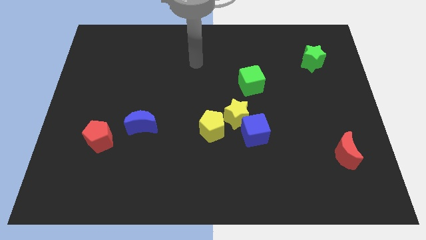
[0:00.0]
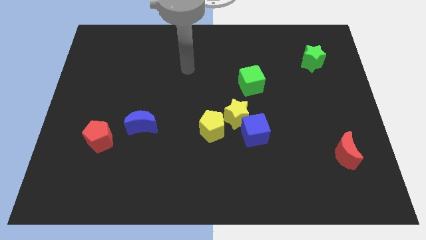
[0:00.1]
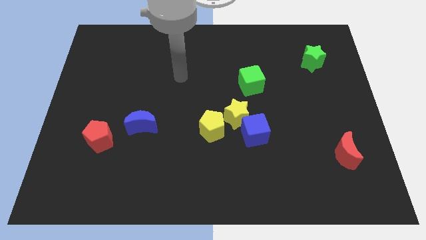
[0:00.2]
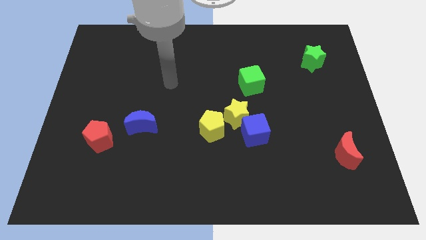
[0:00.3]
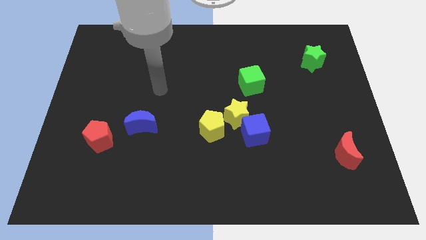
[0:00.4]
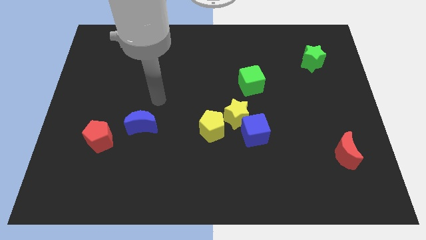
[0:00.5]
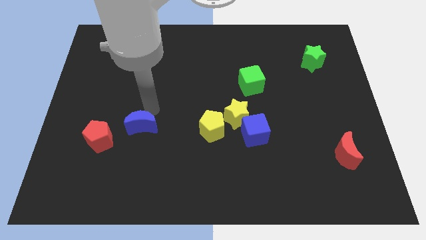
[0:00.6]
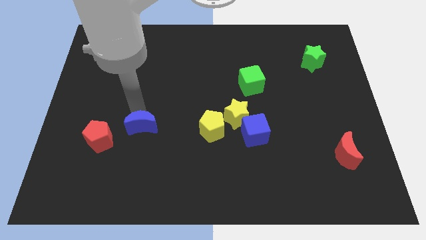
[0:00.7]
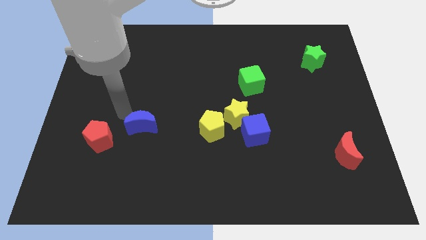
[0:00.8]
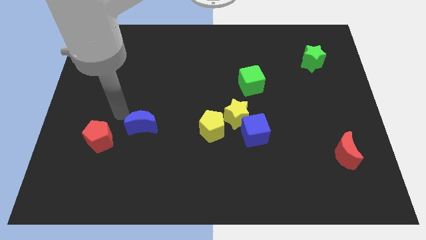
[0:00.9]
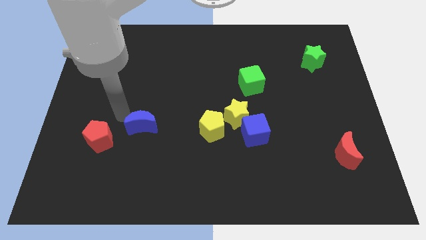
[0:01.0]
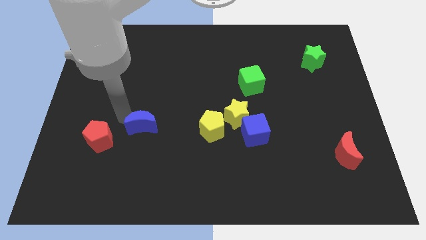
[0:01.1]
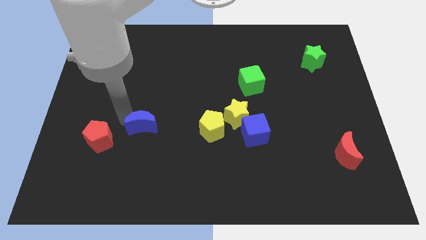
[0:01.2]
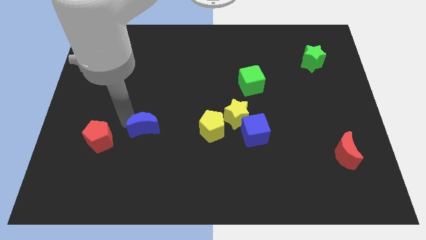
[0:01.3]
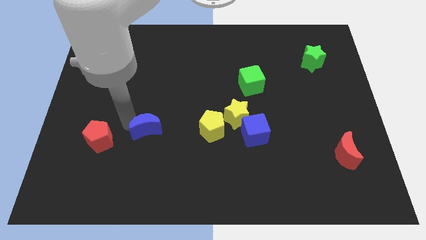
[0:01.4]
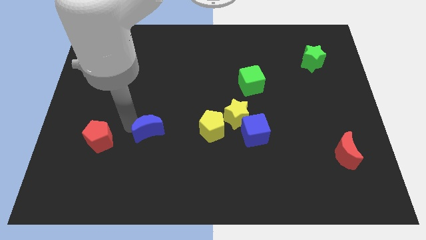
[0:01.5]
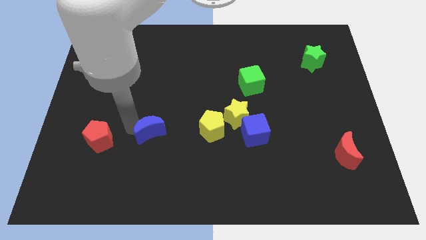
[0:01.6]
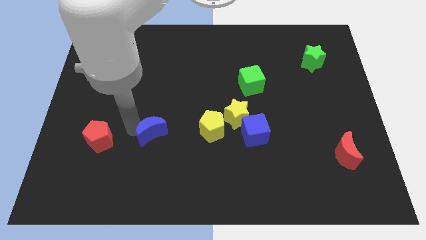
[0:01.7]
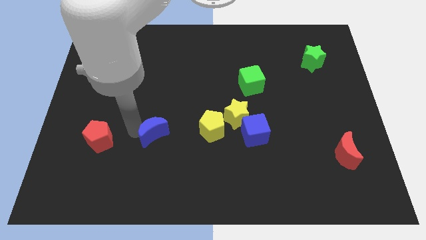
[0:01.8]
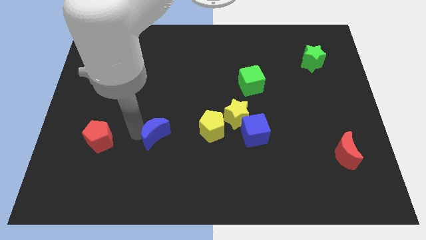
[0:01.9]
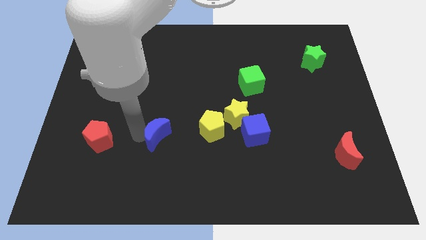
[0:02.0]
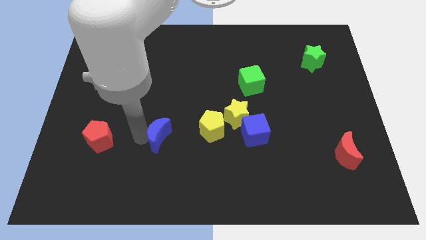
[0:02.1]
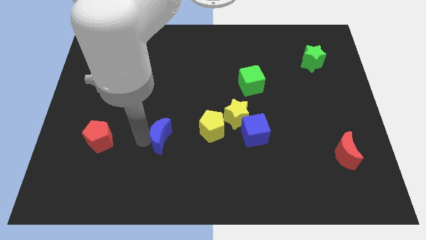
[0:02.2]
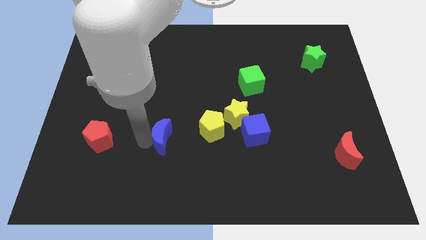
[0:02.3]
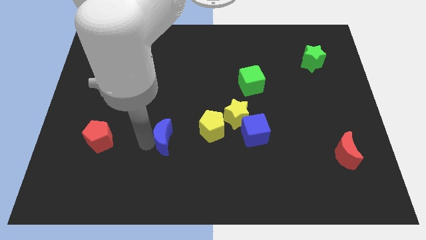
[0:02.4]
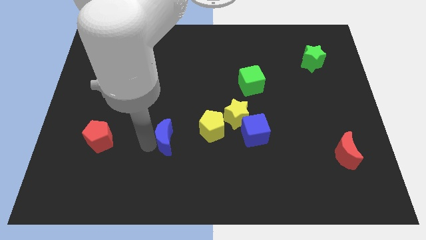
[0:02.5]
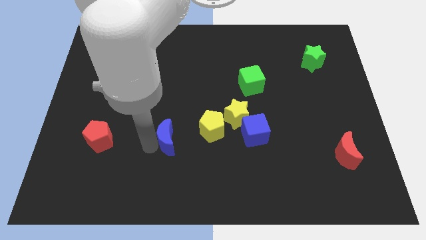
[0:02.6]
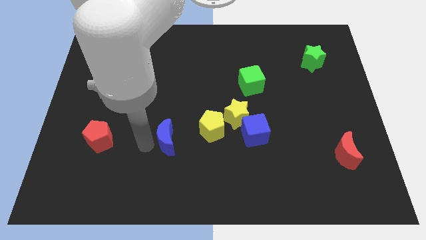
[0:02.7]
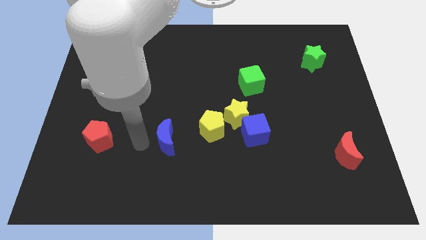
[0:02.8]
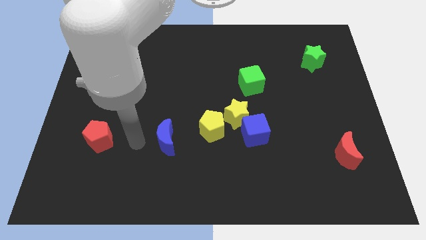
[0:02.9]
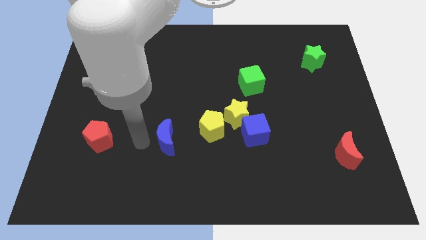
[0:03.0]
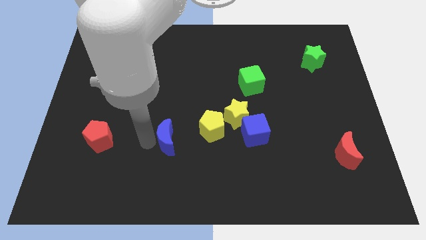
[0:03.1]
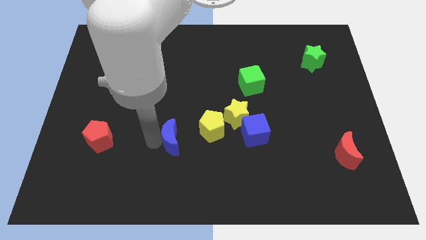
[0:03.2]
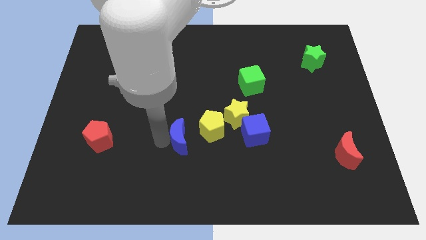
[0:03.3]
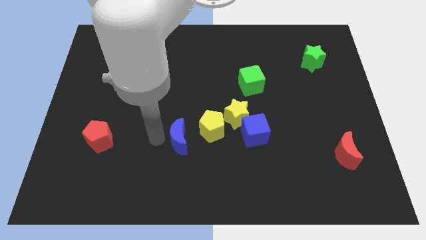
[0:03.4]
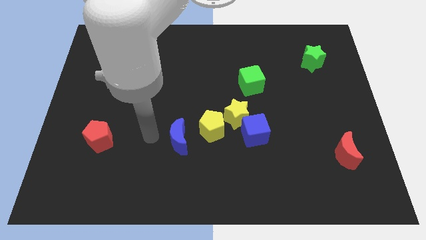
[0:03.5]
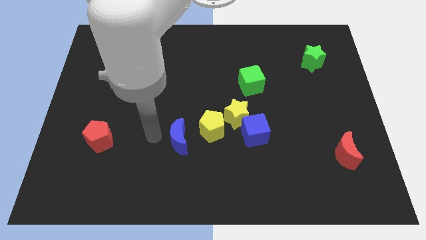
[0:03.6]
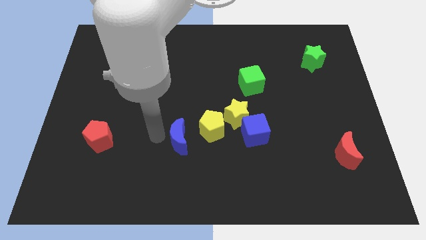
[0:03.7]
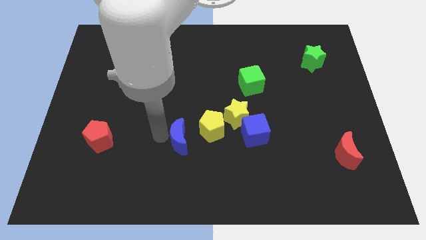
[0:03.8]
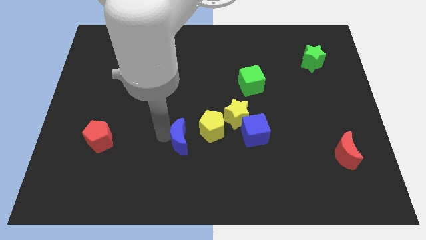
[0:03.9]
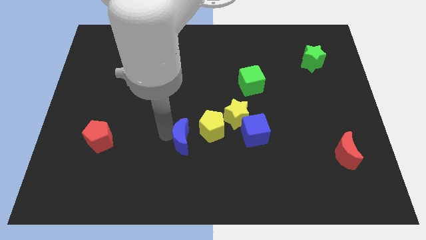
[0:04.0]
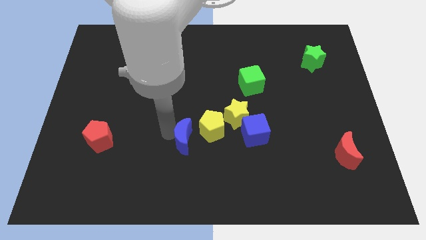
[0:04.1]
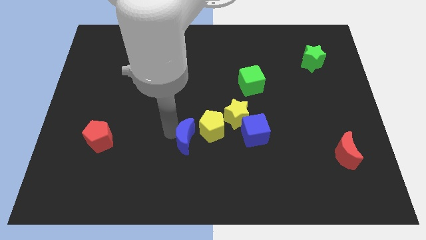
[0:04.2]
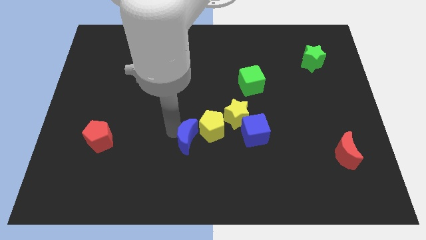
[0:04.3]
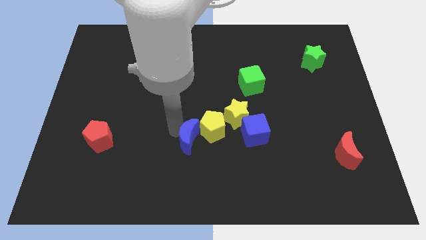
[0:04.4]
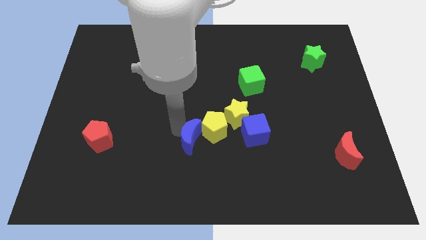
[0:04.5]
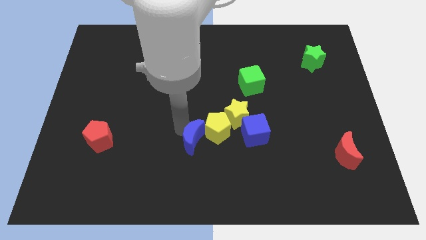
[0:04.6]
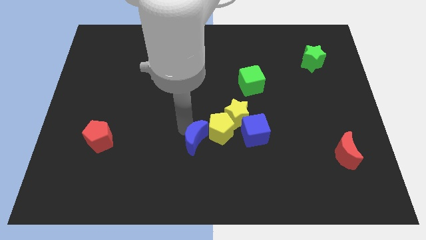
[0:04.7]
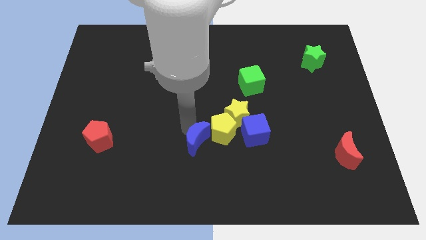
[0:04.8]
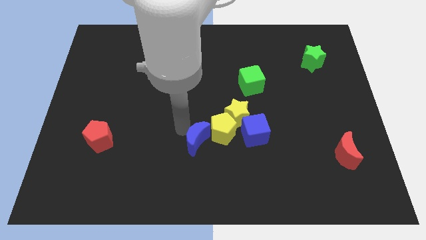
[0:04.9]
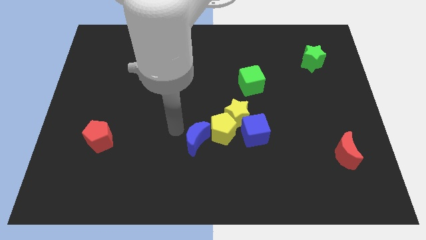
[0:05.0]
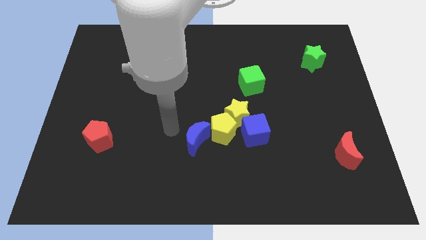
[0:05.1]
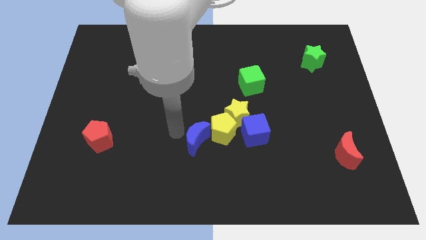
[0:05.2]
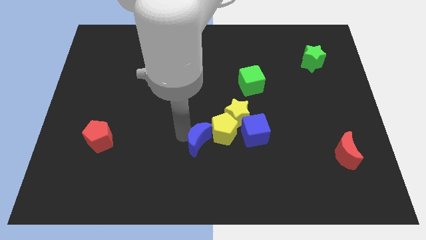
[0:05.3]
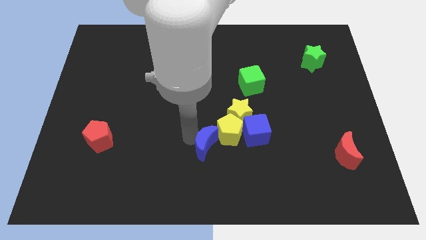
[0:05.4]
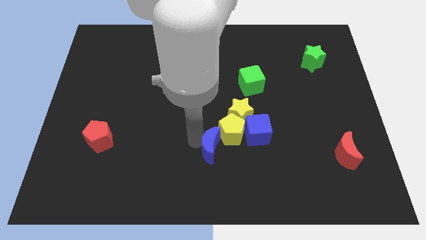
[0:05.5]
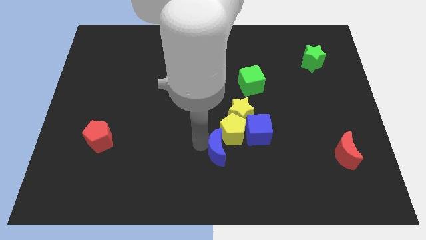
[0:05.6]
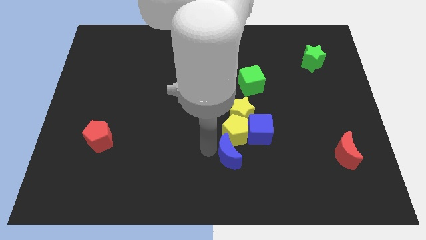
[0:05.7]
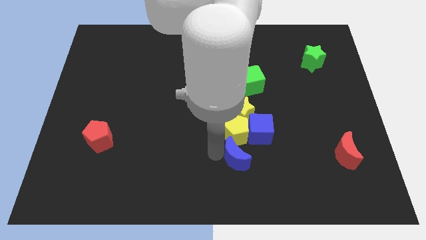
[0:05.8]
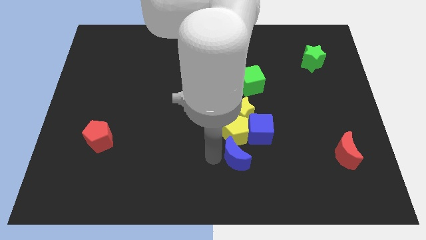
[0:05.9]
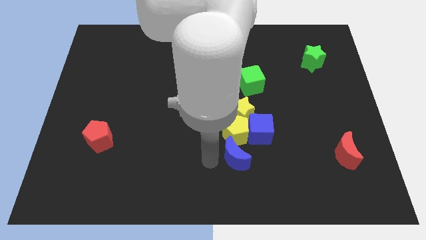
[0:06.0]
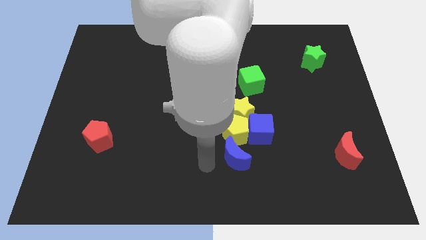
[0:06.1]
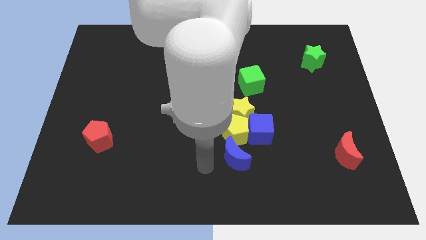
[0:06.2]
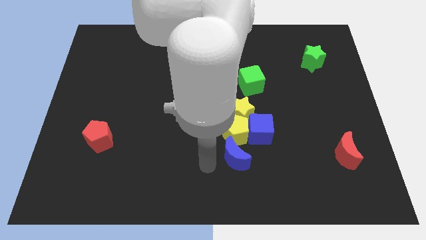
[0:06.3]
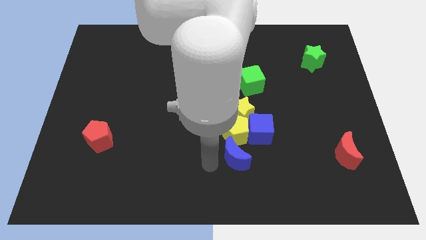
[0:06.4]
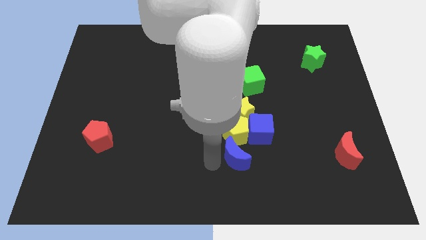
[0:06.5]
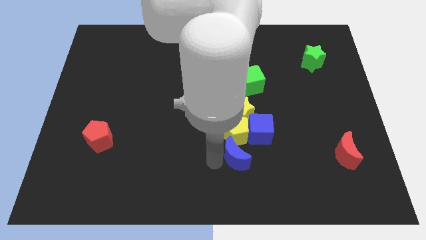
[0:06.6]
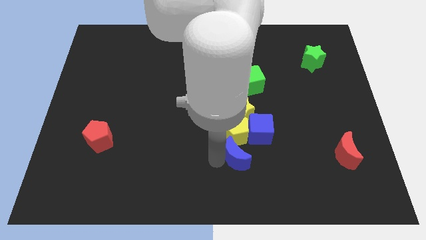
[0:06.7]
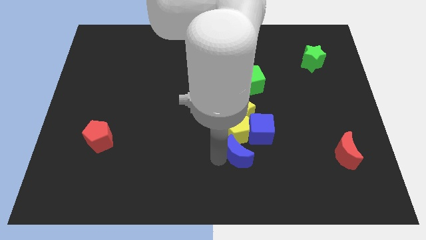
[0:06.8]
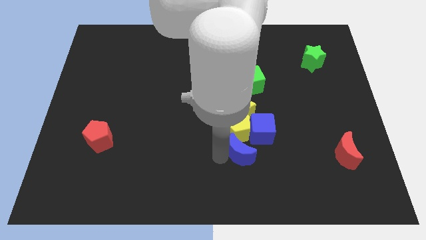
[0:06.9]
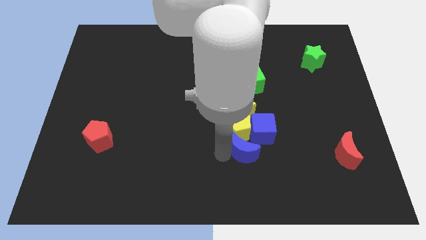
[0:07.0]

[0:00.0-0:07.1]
slide the blue moon to the right

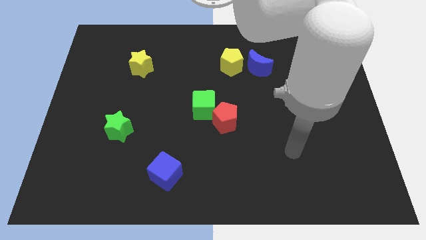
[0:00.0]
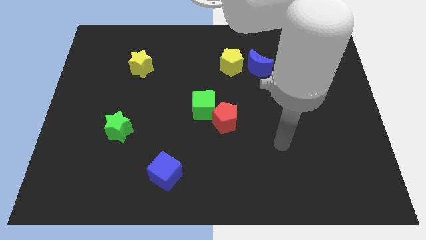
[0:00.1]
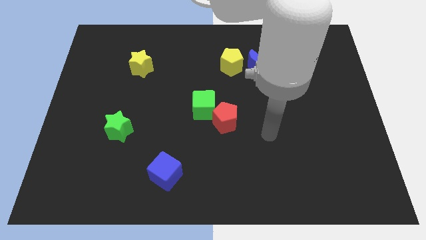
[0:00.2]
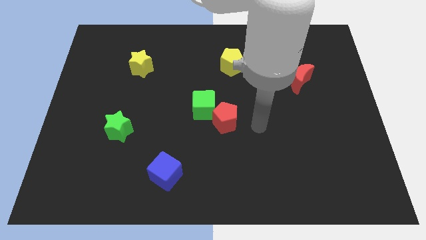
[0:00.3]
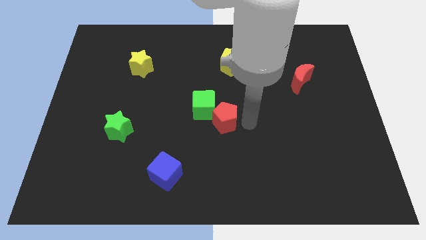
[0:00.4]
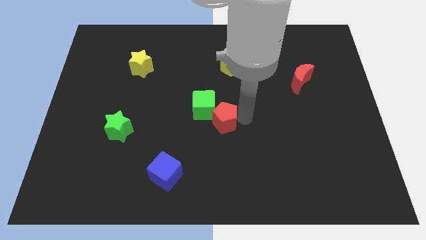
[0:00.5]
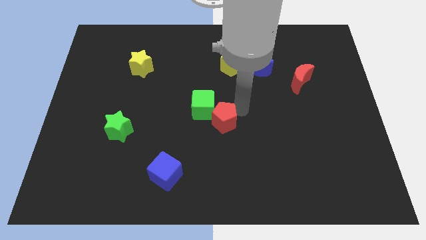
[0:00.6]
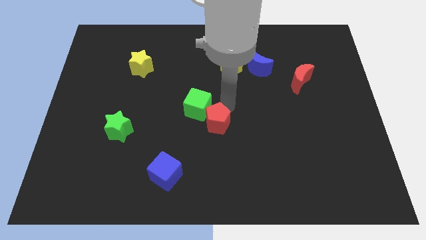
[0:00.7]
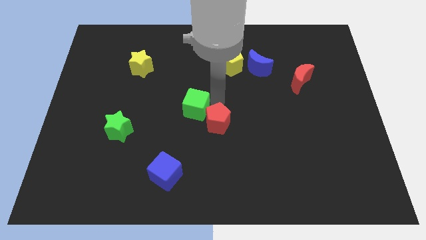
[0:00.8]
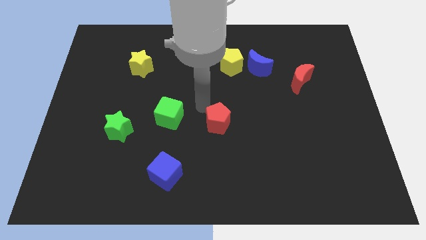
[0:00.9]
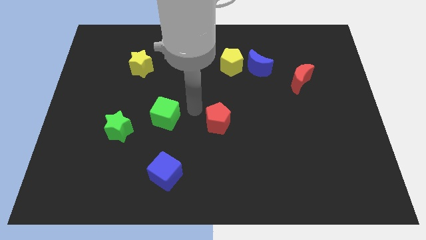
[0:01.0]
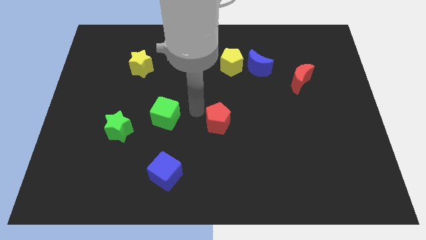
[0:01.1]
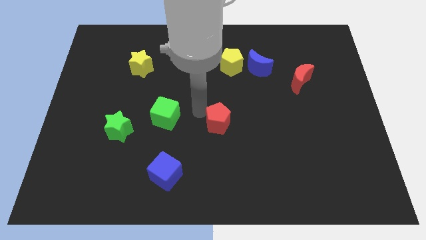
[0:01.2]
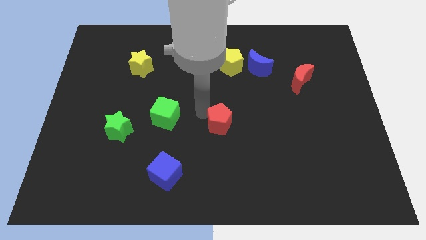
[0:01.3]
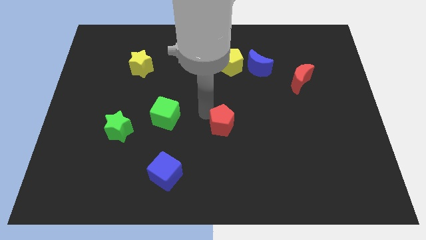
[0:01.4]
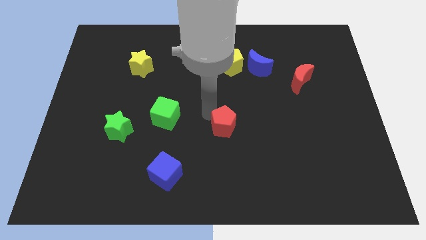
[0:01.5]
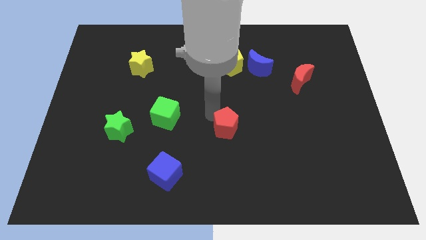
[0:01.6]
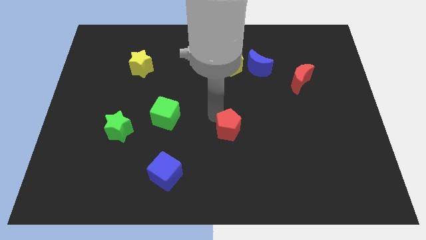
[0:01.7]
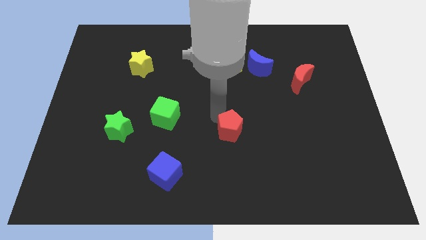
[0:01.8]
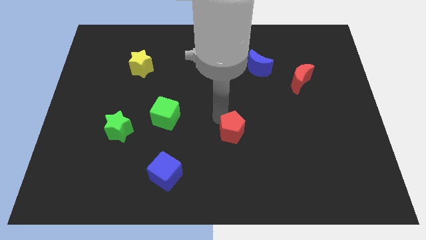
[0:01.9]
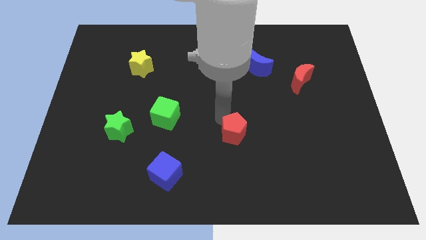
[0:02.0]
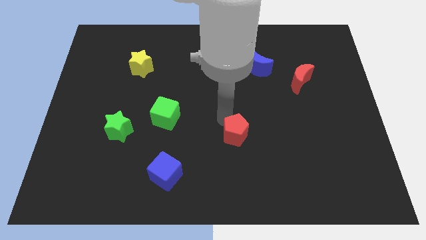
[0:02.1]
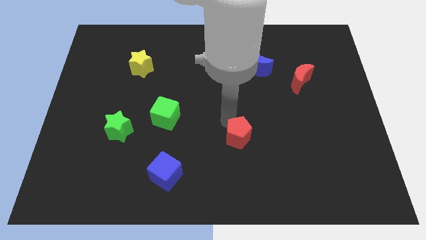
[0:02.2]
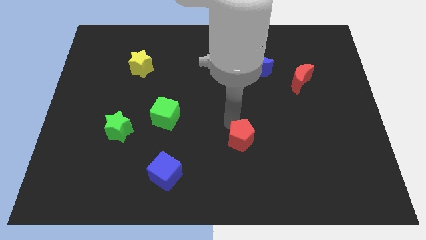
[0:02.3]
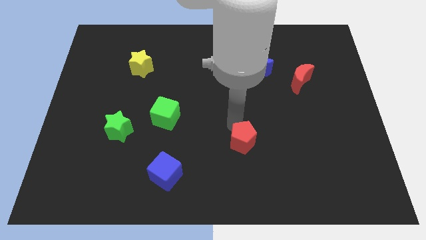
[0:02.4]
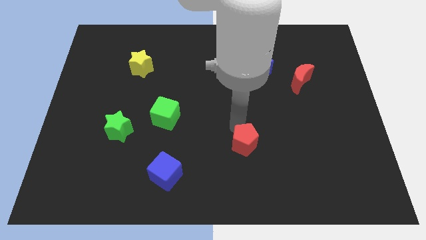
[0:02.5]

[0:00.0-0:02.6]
move the red pentagon diagonally down and right a little bit
